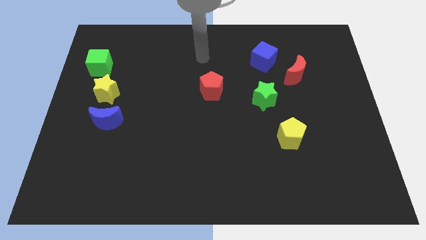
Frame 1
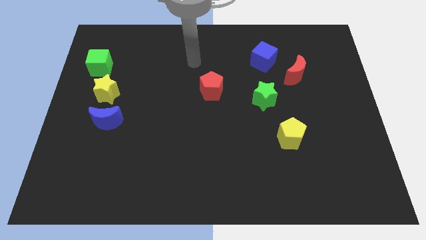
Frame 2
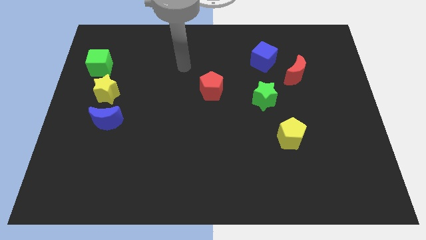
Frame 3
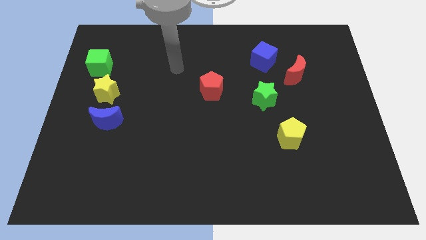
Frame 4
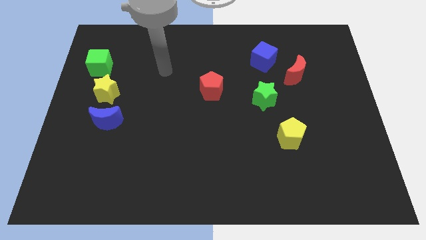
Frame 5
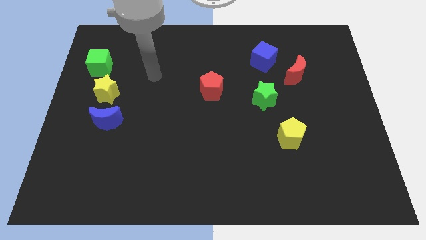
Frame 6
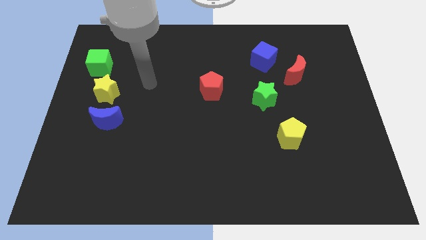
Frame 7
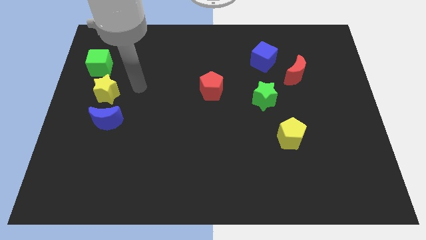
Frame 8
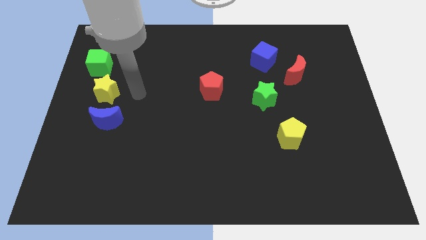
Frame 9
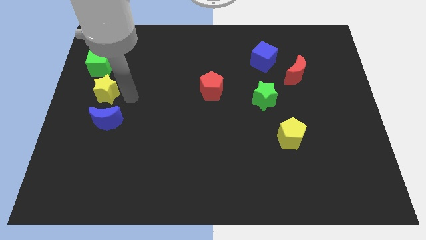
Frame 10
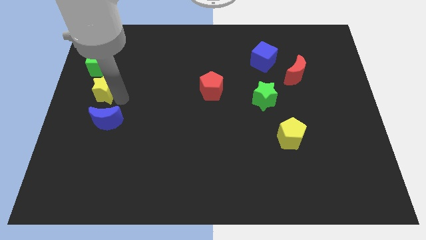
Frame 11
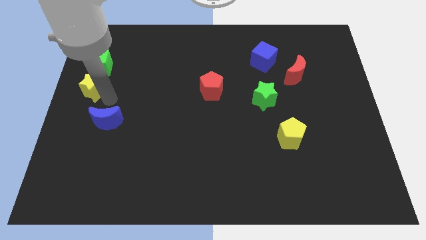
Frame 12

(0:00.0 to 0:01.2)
separate the blue moon from the yellow star

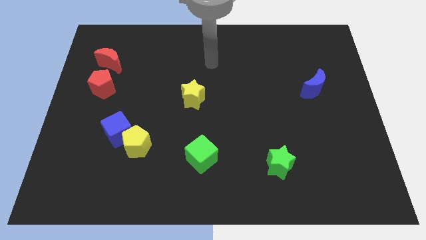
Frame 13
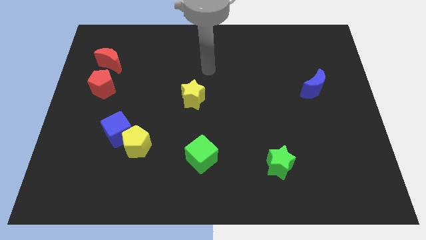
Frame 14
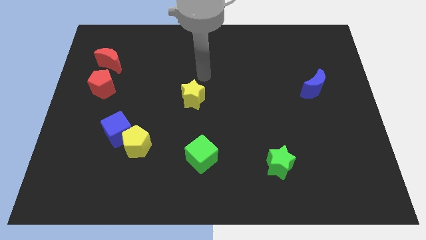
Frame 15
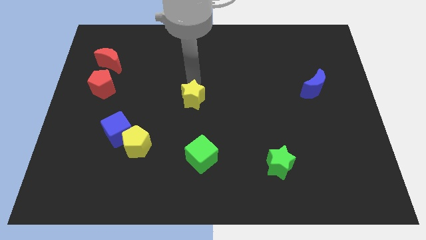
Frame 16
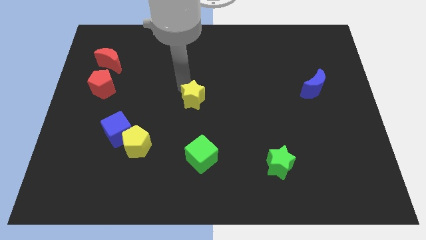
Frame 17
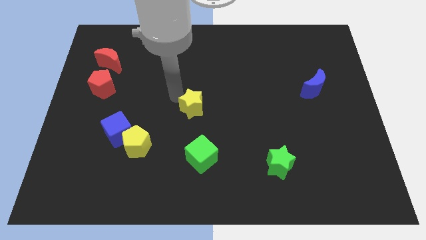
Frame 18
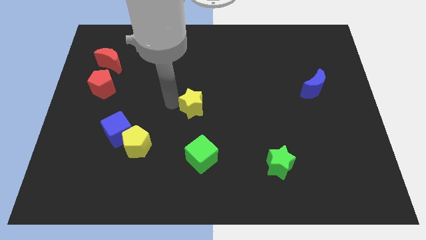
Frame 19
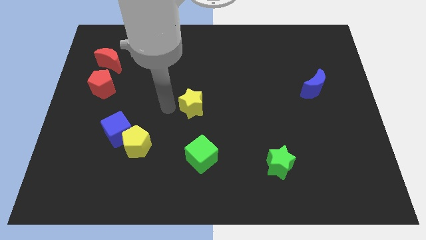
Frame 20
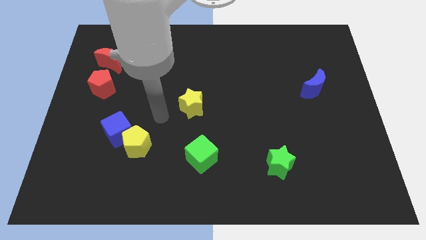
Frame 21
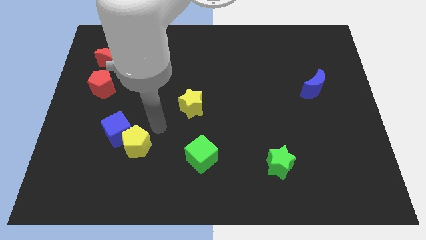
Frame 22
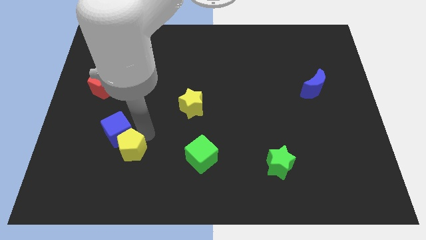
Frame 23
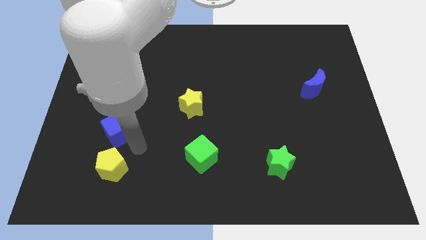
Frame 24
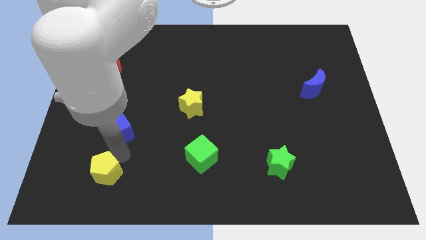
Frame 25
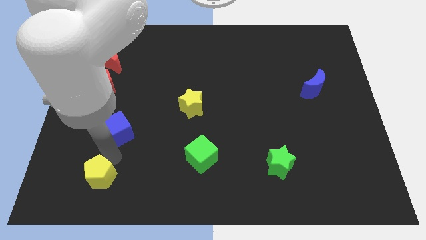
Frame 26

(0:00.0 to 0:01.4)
pull the blue cube apart from the yellow pentagon

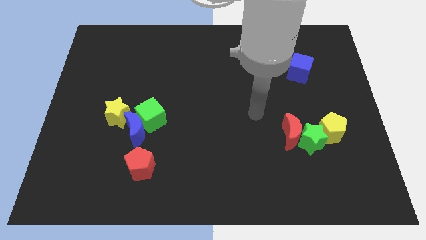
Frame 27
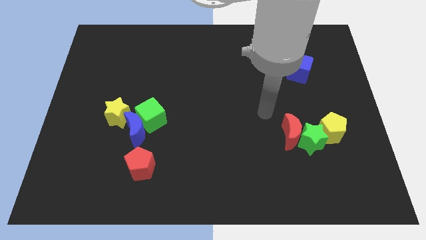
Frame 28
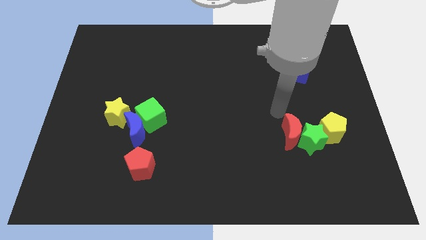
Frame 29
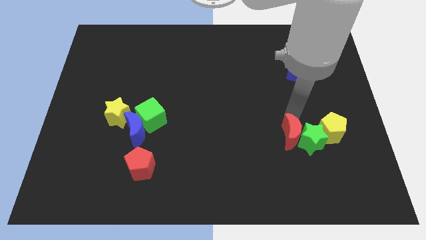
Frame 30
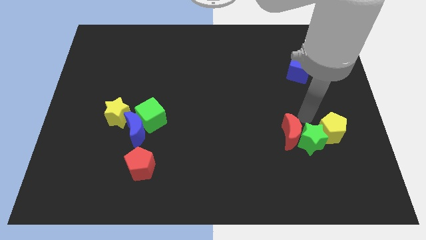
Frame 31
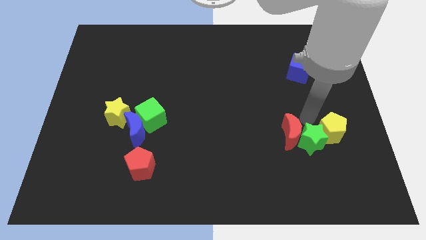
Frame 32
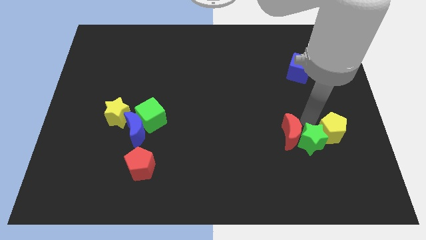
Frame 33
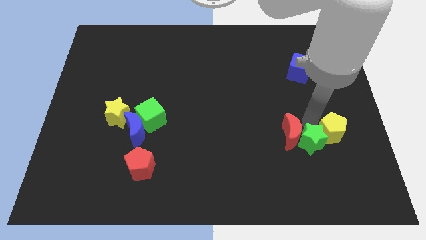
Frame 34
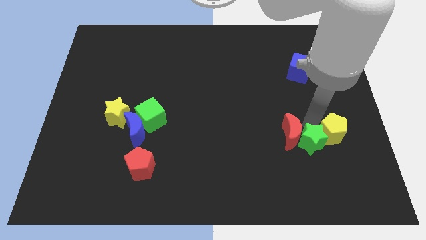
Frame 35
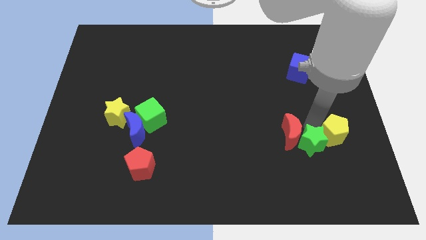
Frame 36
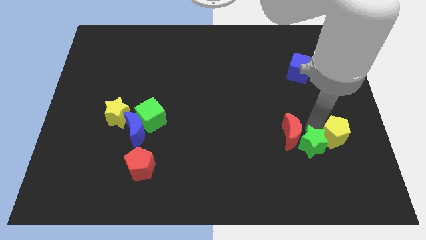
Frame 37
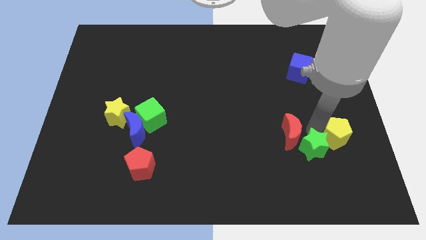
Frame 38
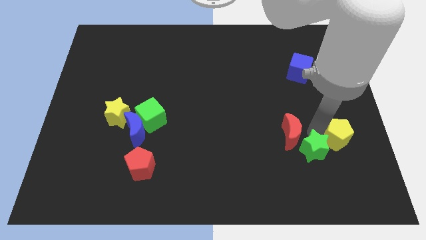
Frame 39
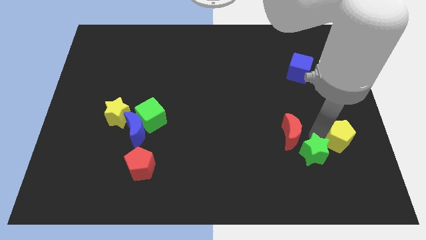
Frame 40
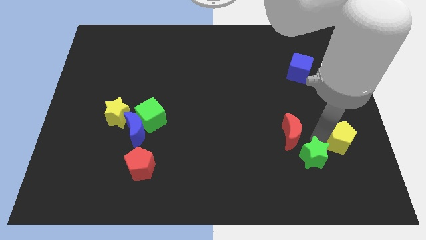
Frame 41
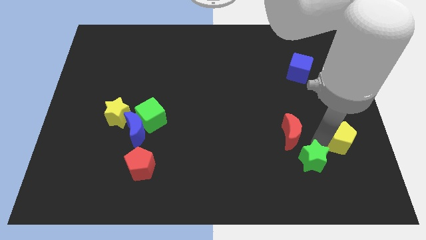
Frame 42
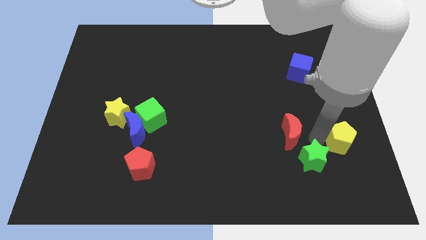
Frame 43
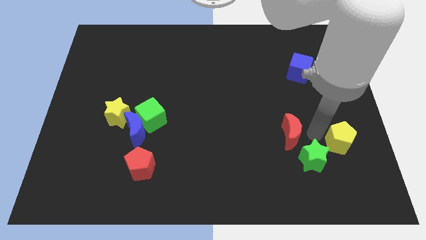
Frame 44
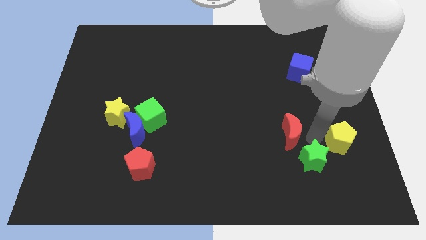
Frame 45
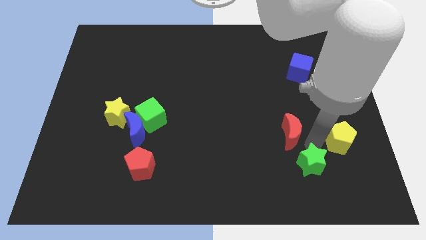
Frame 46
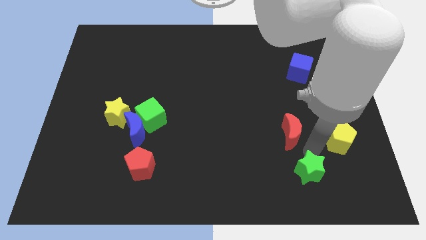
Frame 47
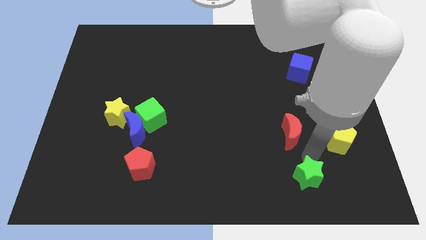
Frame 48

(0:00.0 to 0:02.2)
separate the green star from the red moon and yellow pentagon

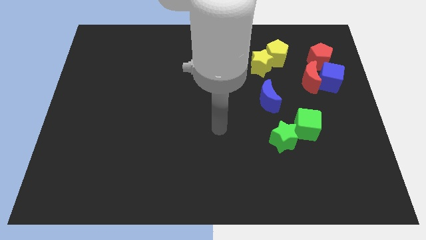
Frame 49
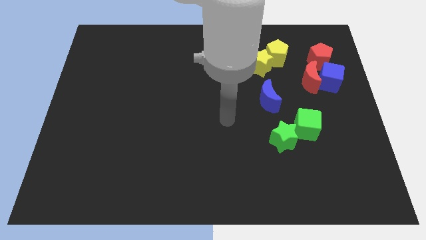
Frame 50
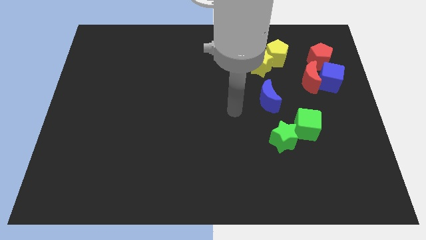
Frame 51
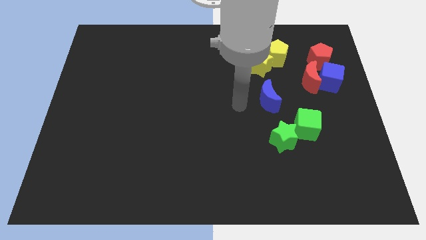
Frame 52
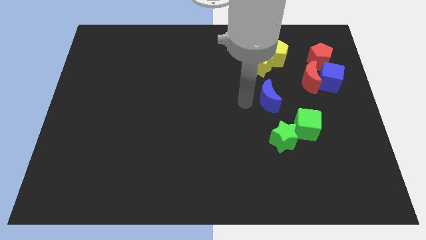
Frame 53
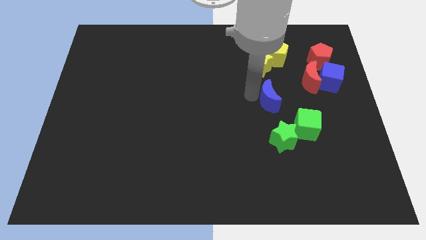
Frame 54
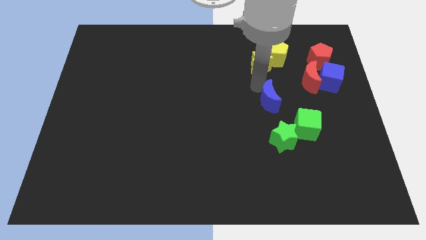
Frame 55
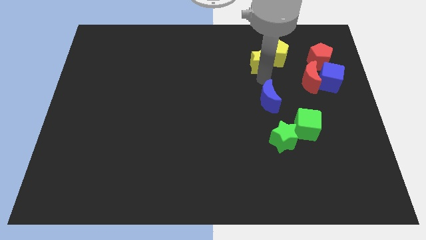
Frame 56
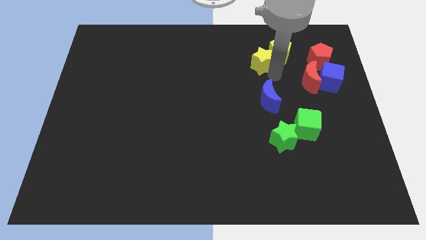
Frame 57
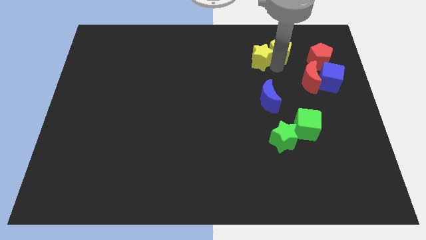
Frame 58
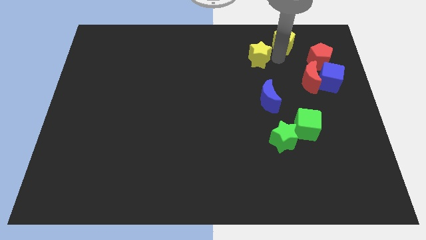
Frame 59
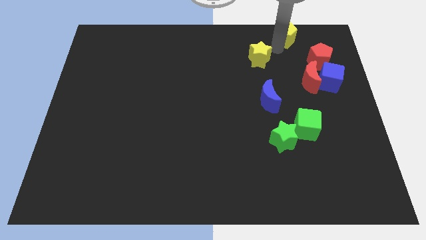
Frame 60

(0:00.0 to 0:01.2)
separate the yellow star from the yellow pentagon

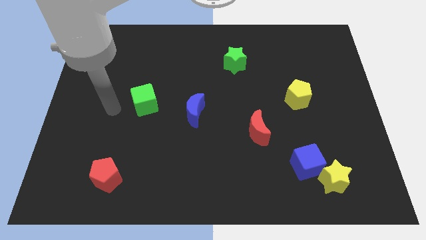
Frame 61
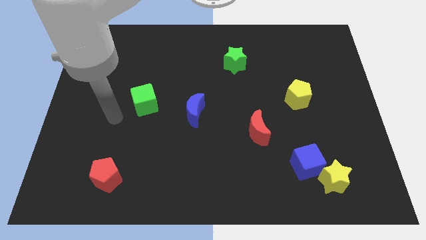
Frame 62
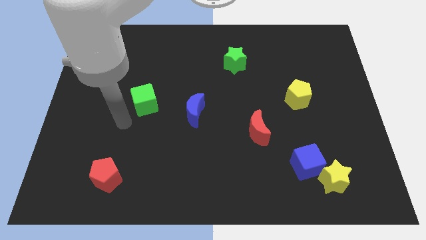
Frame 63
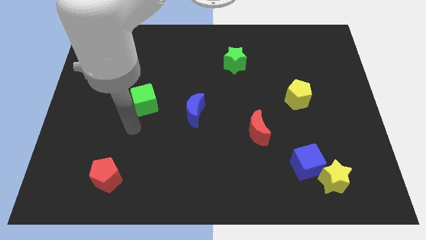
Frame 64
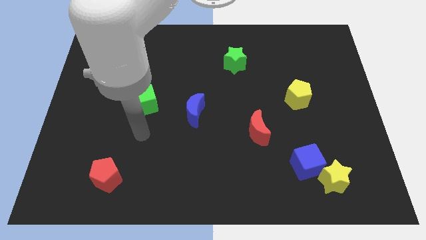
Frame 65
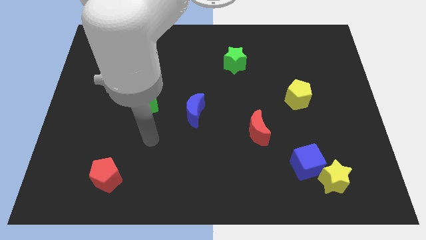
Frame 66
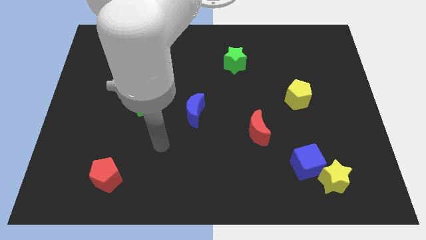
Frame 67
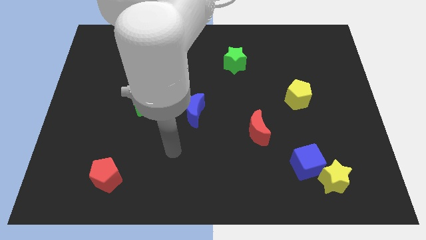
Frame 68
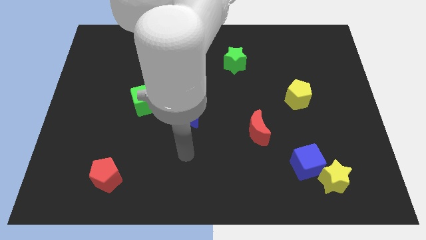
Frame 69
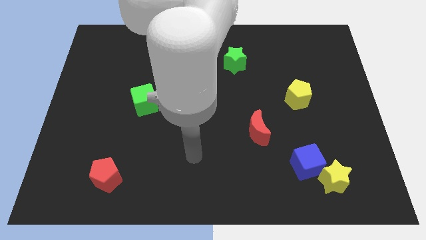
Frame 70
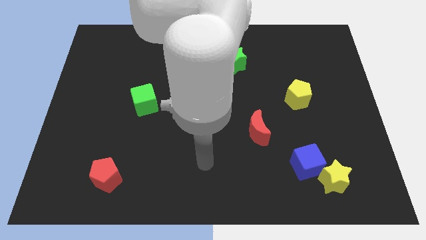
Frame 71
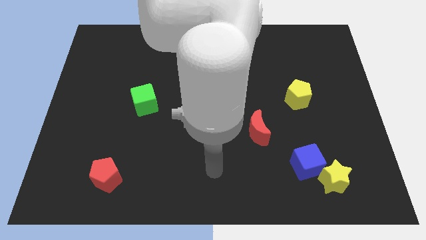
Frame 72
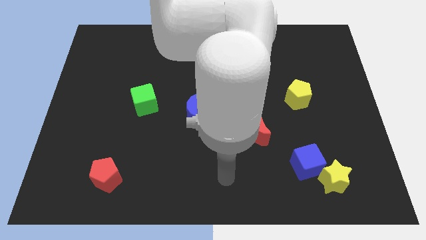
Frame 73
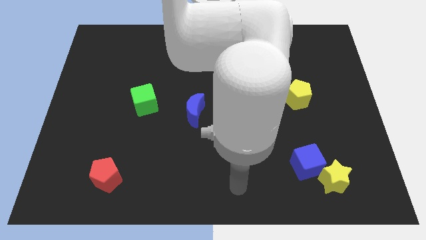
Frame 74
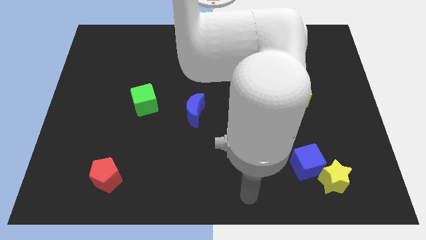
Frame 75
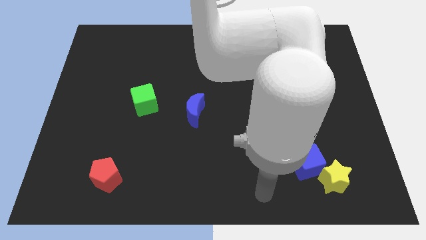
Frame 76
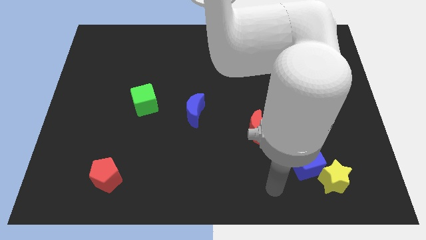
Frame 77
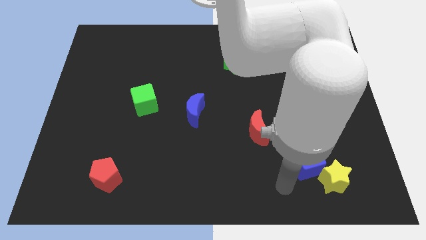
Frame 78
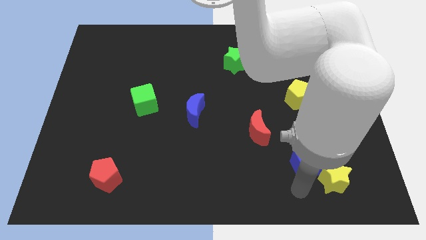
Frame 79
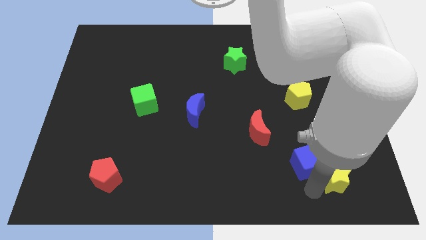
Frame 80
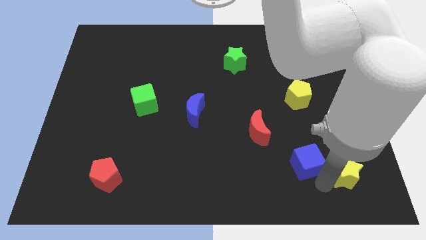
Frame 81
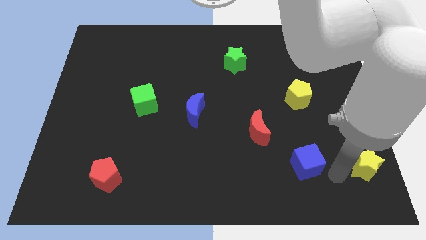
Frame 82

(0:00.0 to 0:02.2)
separate the blue cube from the yellow star

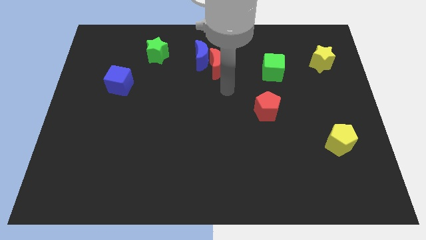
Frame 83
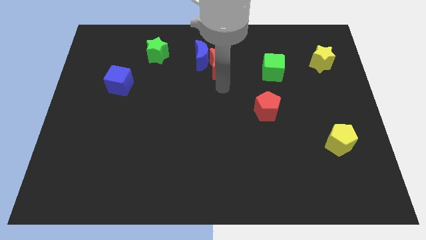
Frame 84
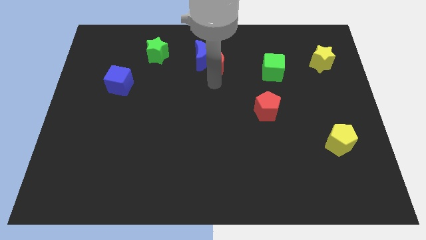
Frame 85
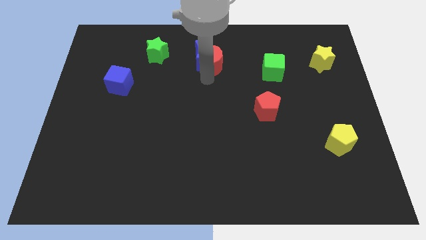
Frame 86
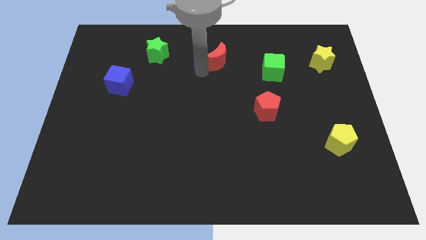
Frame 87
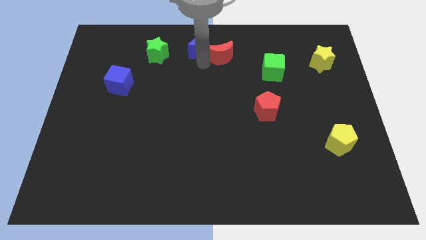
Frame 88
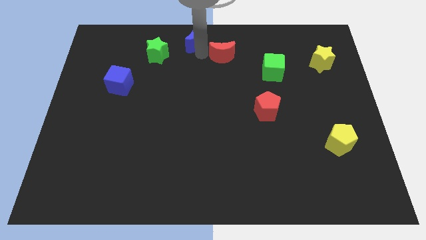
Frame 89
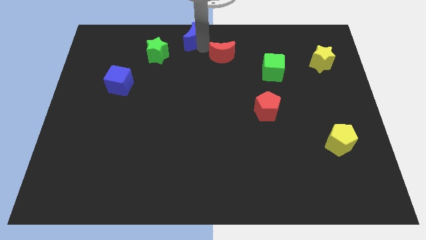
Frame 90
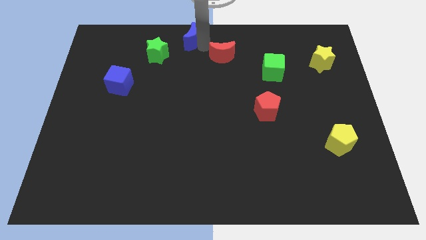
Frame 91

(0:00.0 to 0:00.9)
move the red moon away from the blue moon

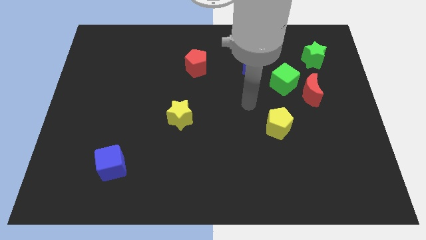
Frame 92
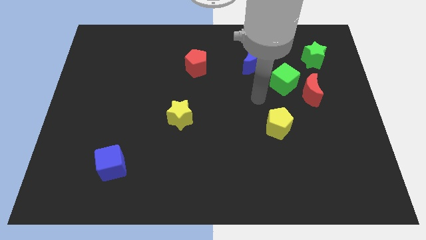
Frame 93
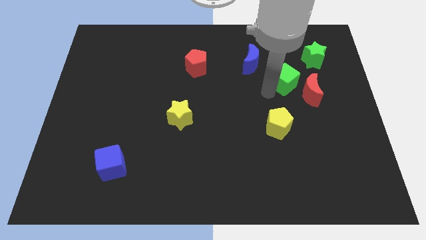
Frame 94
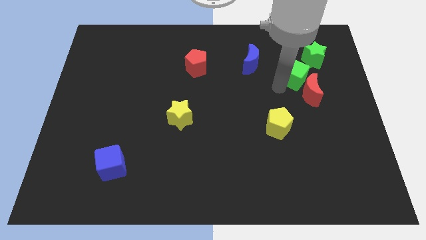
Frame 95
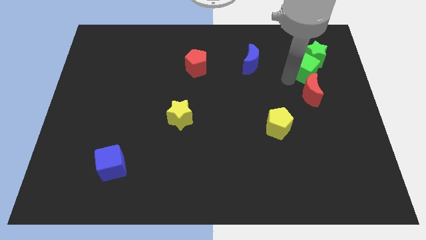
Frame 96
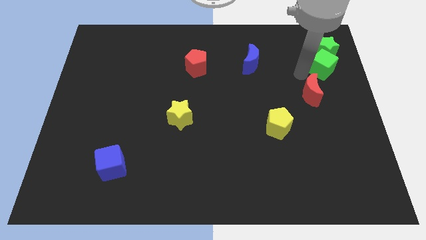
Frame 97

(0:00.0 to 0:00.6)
pull the red moon apart from the green cube
